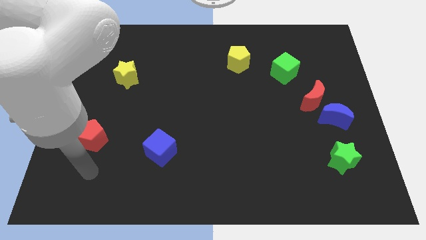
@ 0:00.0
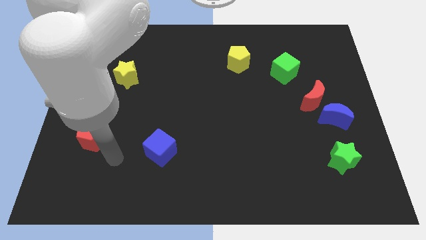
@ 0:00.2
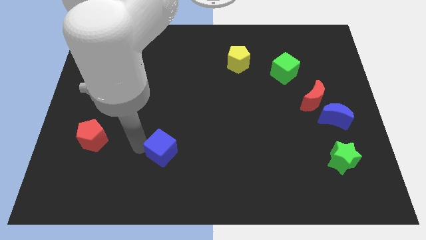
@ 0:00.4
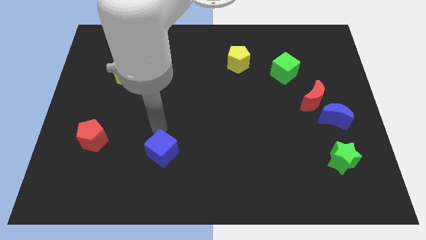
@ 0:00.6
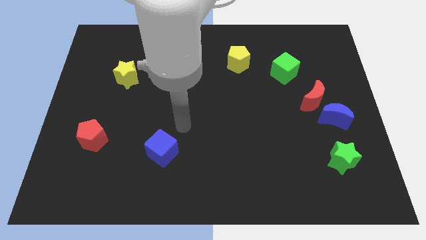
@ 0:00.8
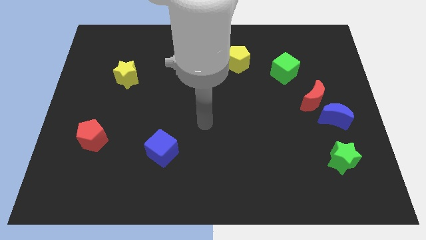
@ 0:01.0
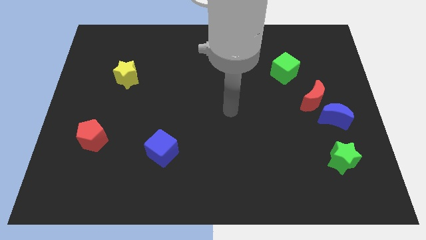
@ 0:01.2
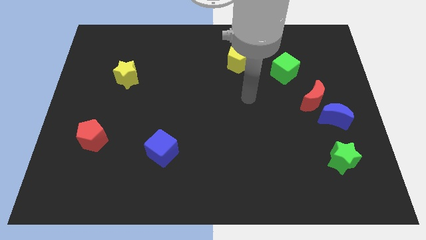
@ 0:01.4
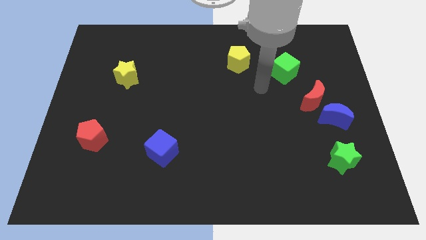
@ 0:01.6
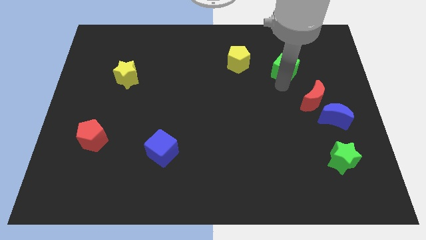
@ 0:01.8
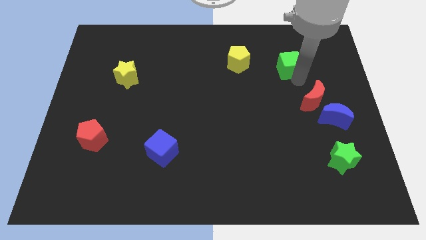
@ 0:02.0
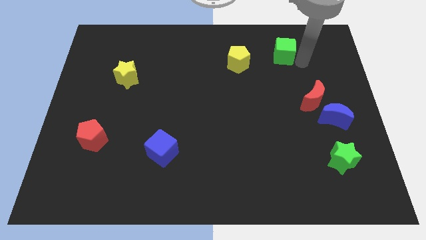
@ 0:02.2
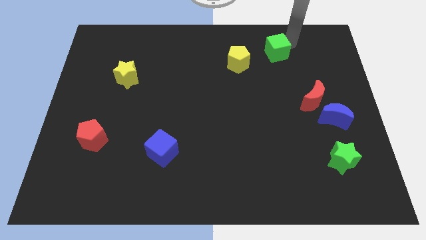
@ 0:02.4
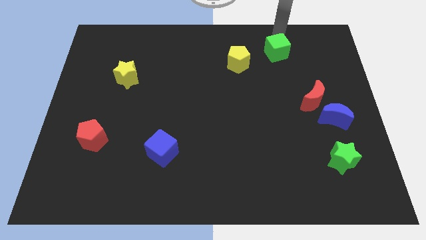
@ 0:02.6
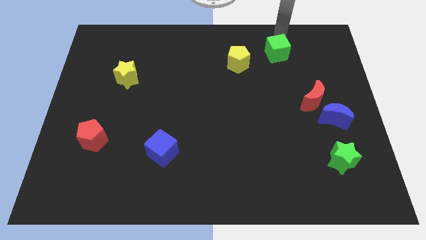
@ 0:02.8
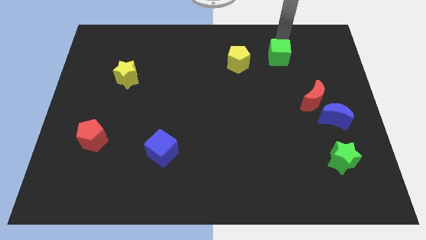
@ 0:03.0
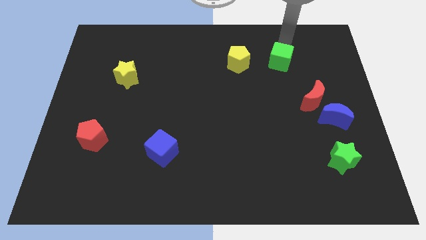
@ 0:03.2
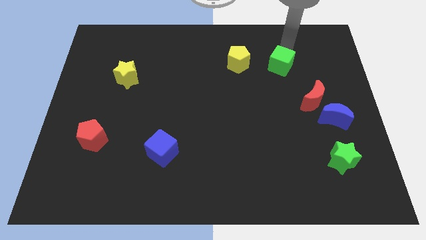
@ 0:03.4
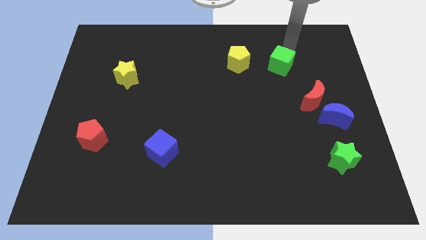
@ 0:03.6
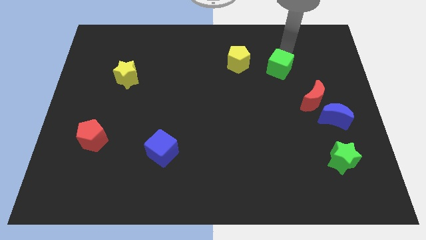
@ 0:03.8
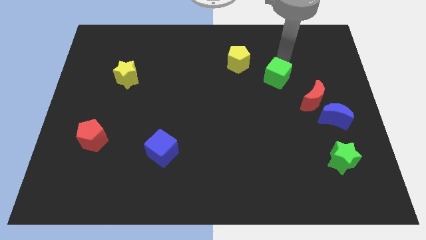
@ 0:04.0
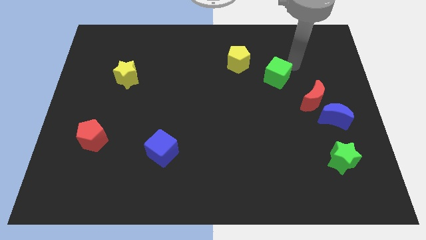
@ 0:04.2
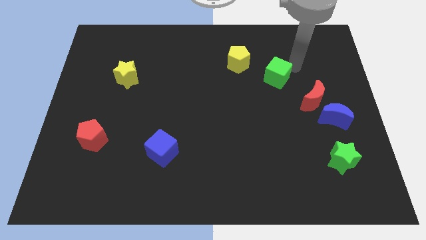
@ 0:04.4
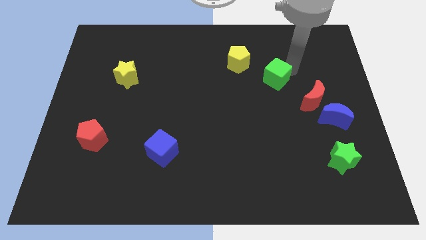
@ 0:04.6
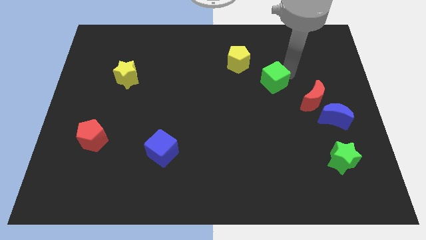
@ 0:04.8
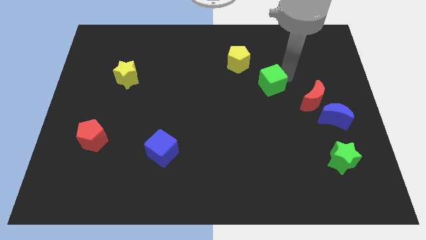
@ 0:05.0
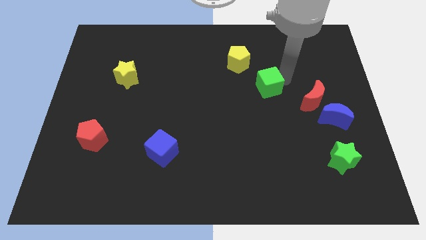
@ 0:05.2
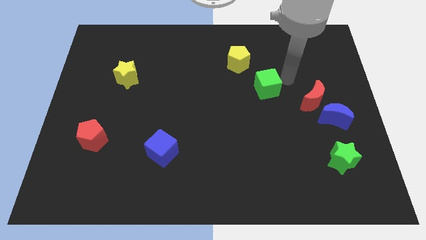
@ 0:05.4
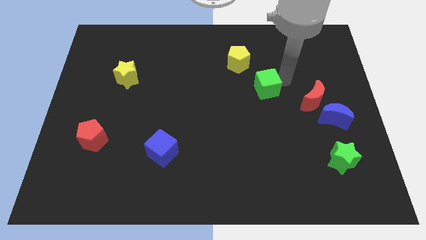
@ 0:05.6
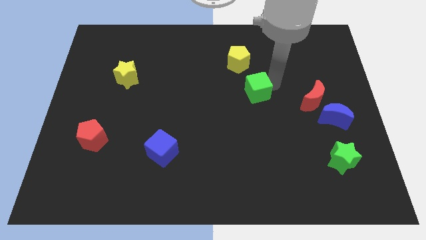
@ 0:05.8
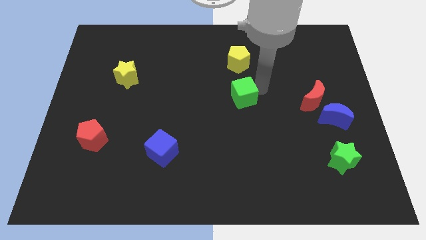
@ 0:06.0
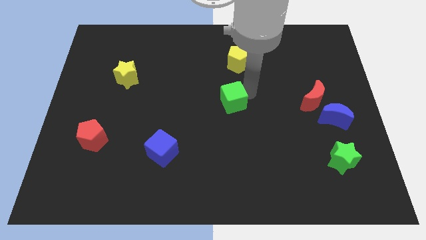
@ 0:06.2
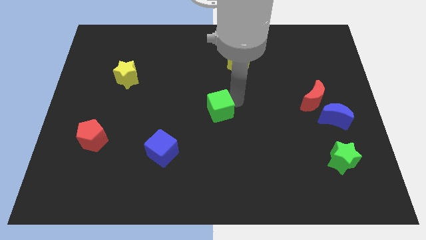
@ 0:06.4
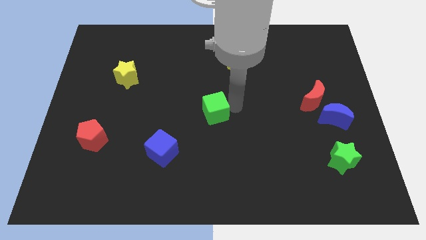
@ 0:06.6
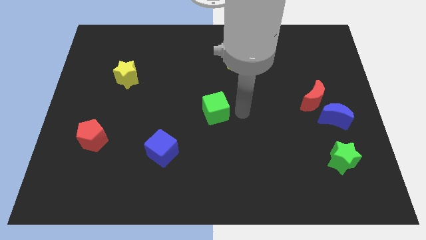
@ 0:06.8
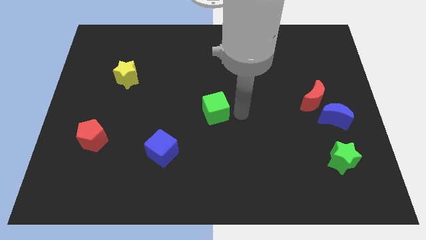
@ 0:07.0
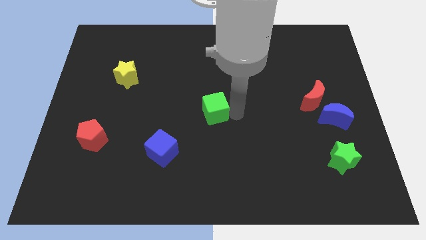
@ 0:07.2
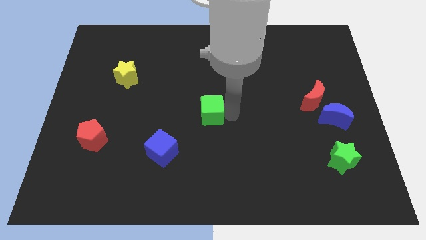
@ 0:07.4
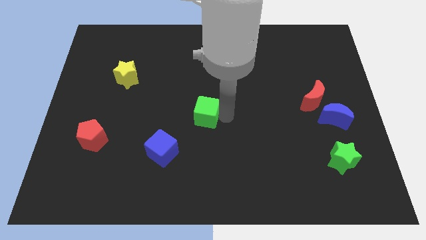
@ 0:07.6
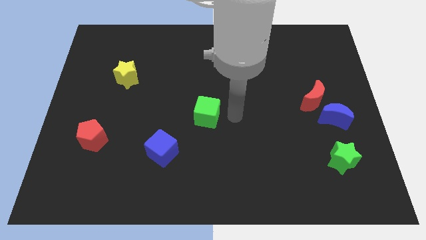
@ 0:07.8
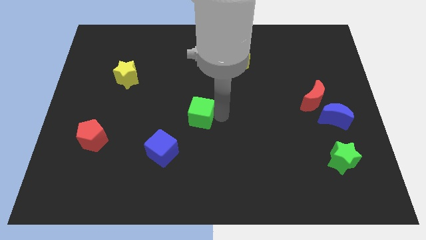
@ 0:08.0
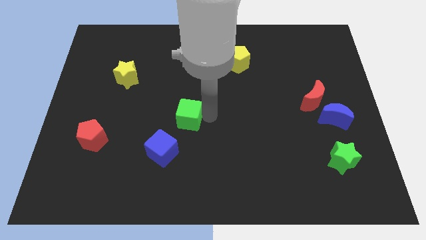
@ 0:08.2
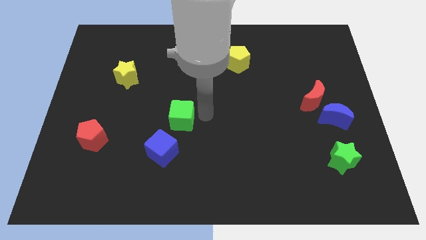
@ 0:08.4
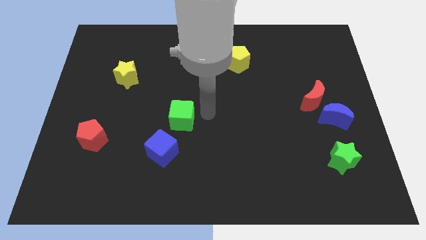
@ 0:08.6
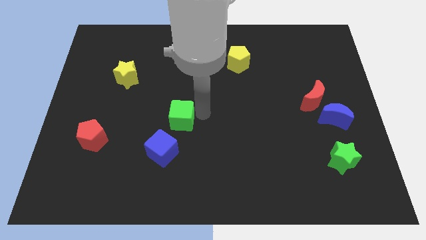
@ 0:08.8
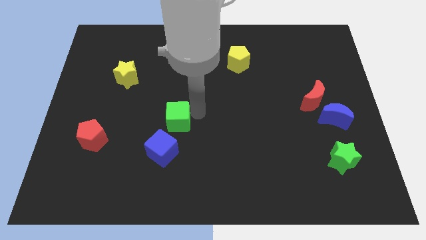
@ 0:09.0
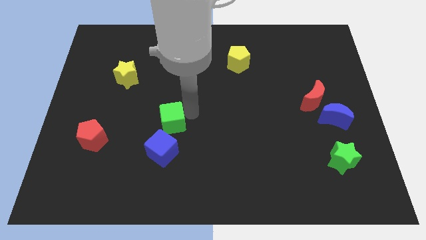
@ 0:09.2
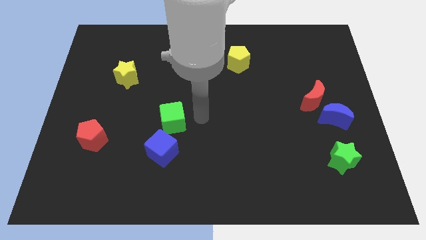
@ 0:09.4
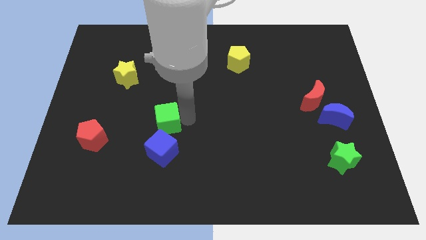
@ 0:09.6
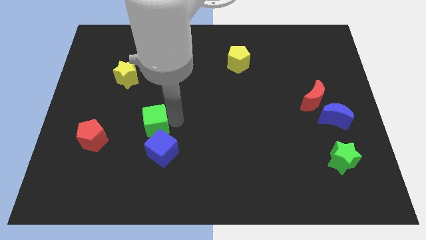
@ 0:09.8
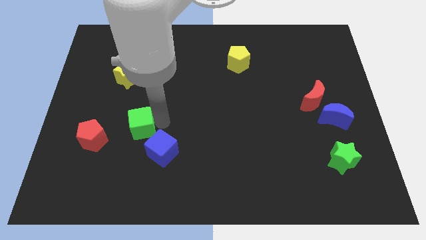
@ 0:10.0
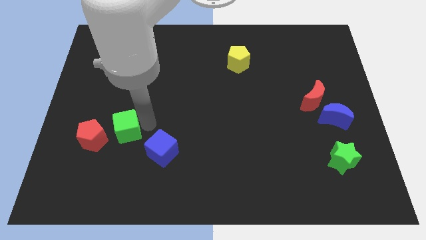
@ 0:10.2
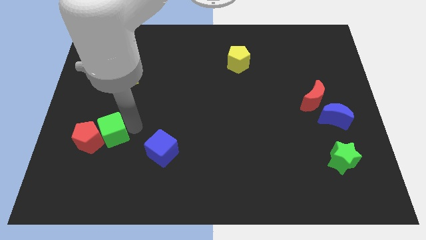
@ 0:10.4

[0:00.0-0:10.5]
put the green cube close to the red pentagon

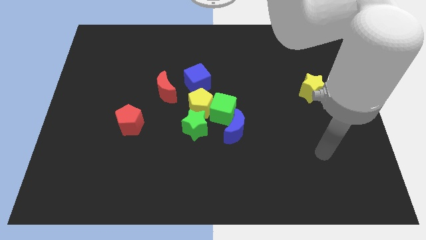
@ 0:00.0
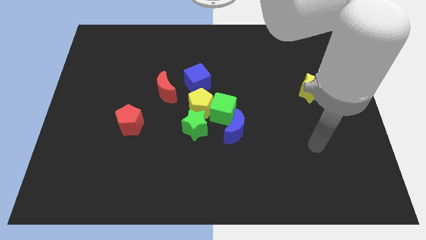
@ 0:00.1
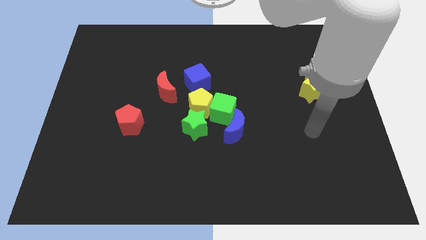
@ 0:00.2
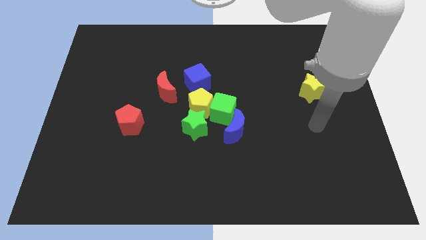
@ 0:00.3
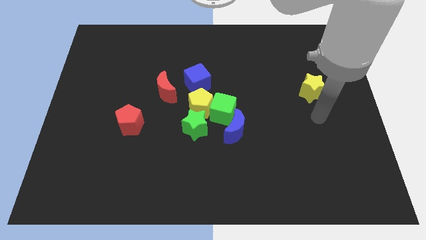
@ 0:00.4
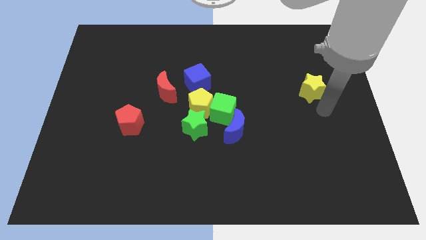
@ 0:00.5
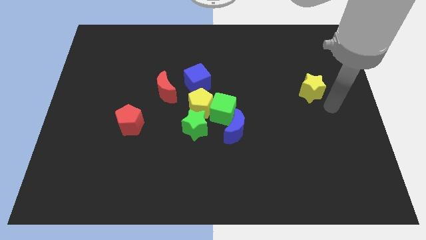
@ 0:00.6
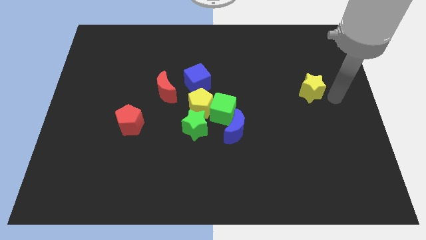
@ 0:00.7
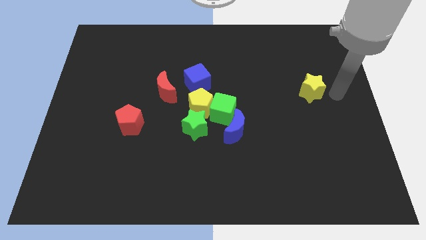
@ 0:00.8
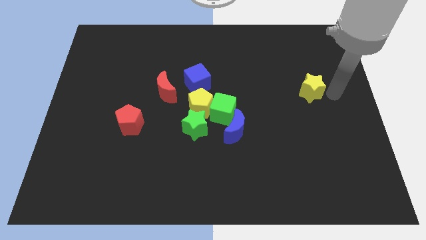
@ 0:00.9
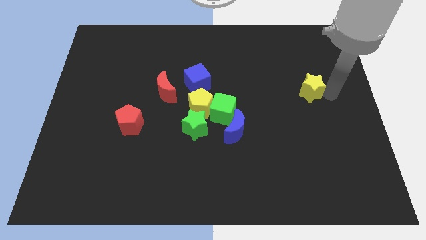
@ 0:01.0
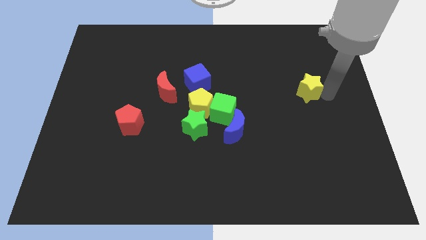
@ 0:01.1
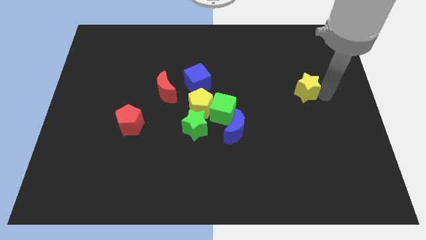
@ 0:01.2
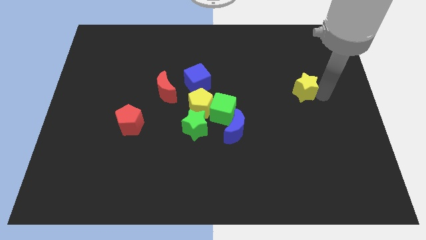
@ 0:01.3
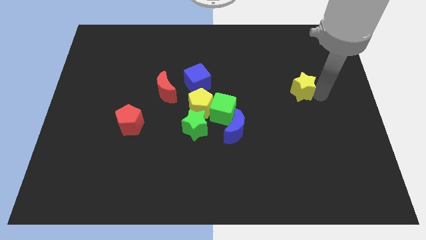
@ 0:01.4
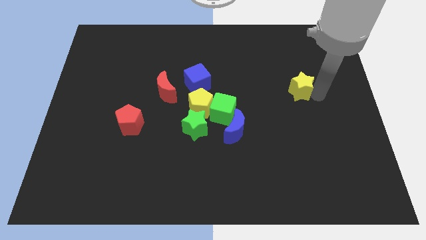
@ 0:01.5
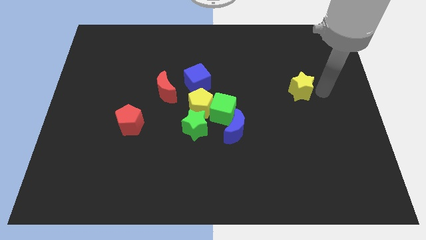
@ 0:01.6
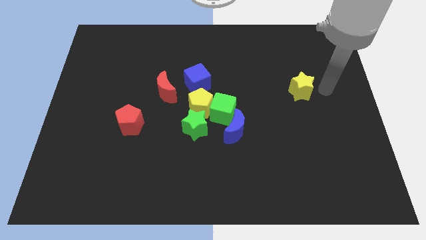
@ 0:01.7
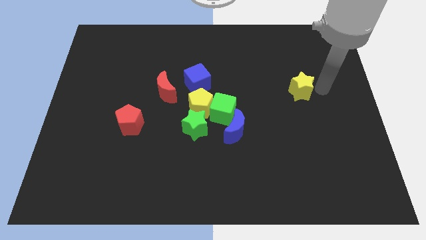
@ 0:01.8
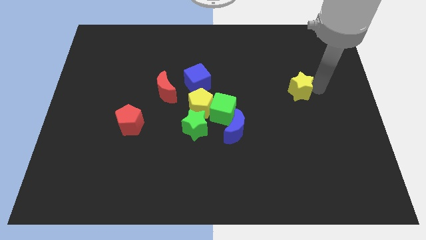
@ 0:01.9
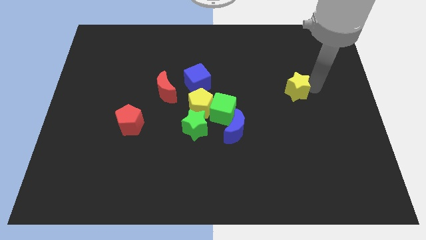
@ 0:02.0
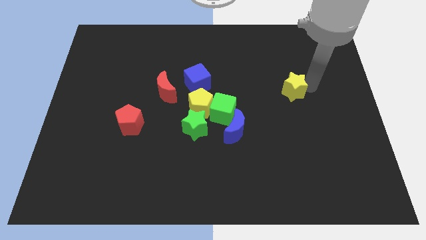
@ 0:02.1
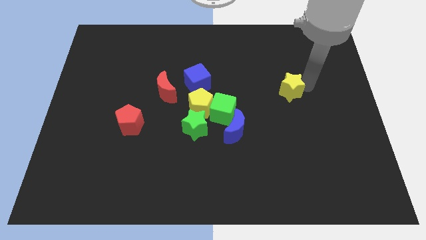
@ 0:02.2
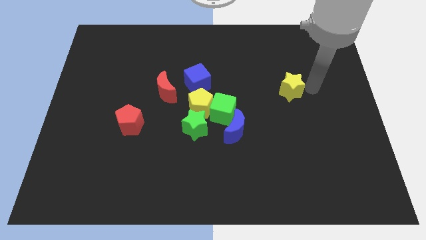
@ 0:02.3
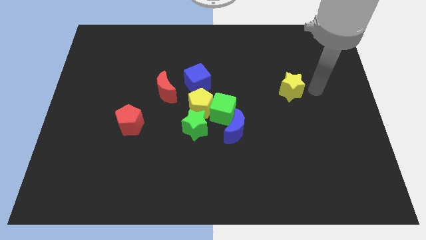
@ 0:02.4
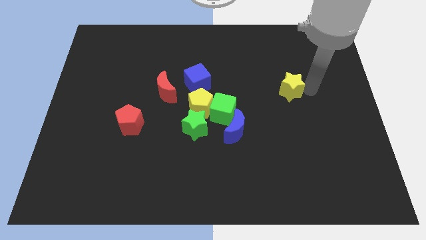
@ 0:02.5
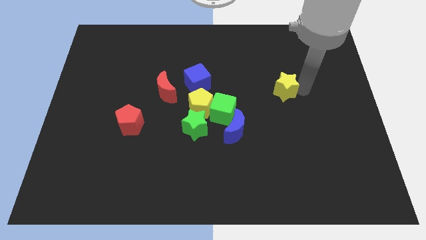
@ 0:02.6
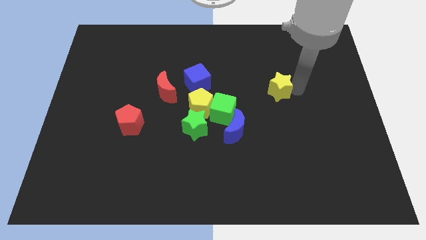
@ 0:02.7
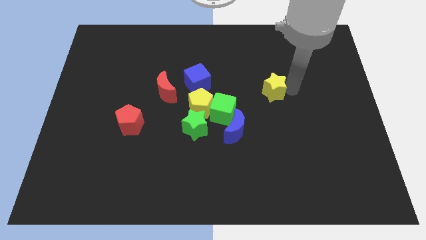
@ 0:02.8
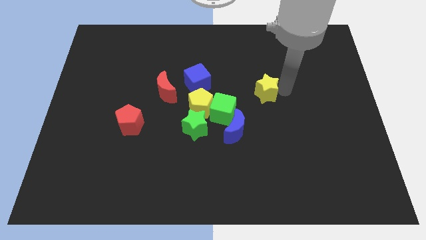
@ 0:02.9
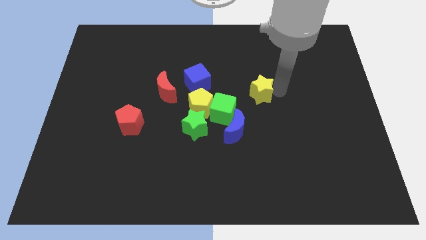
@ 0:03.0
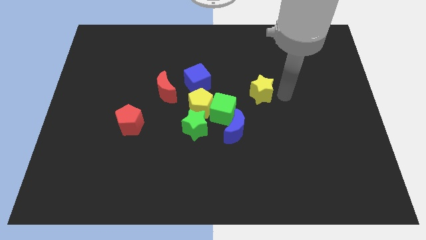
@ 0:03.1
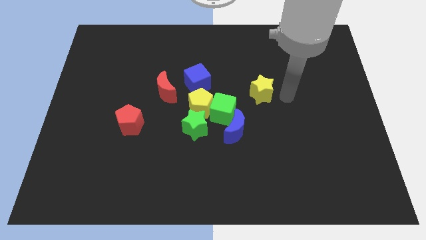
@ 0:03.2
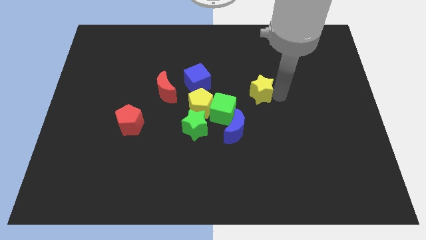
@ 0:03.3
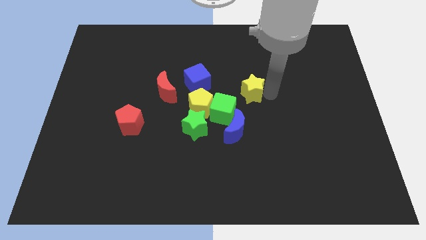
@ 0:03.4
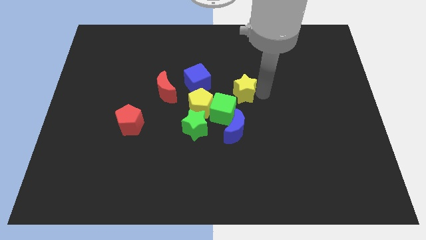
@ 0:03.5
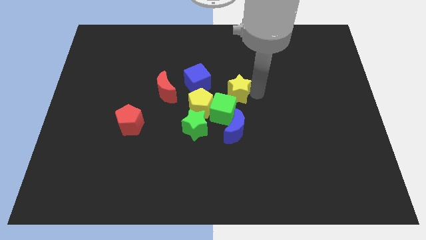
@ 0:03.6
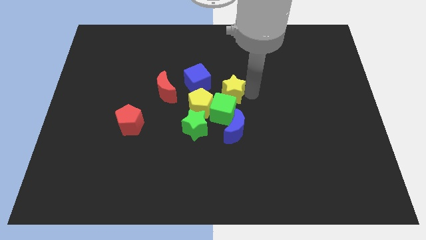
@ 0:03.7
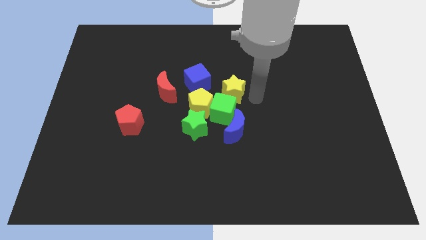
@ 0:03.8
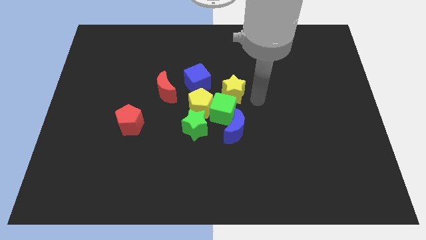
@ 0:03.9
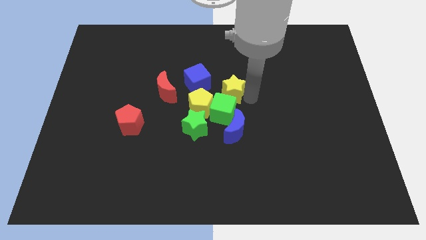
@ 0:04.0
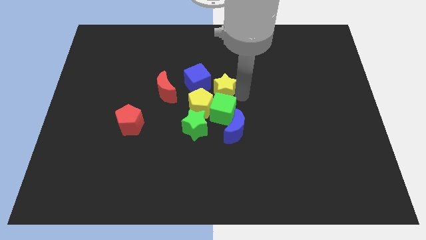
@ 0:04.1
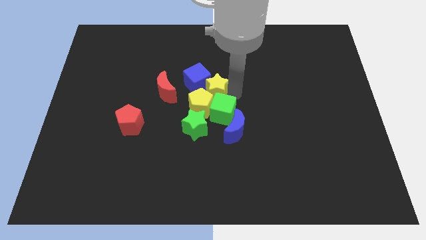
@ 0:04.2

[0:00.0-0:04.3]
move the yellow star to the blue cube
